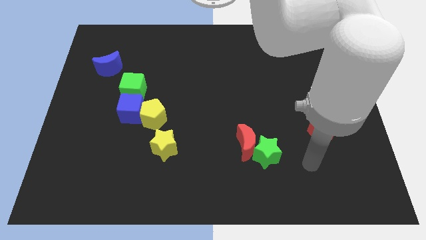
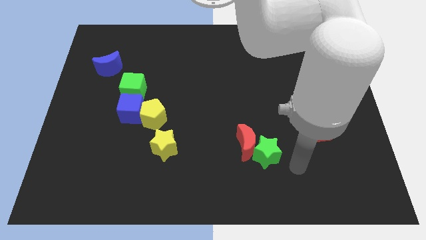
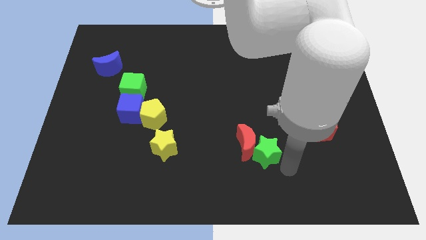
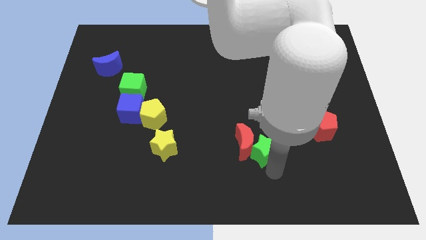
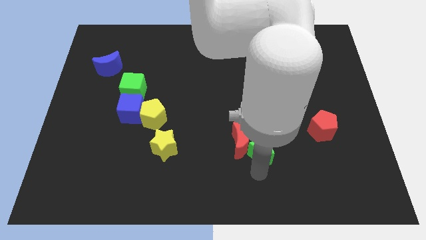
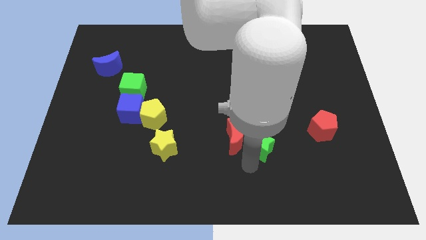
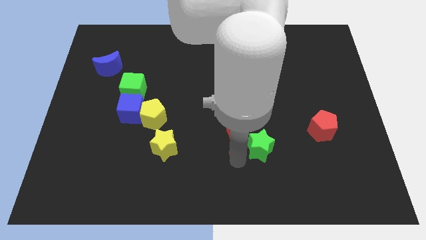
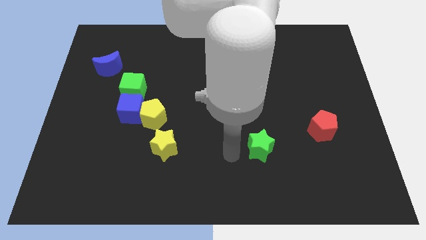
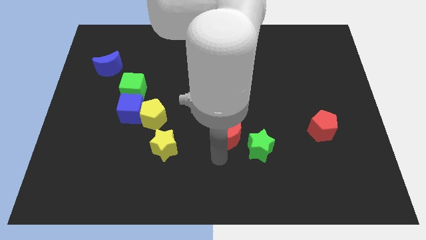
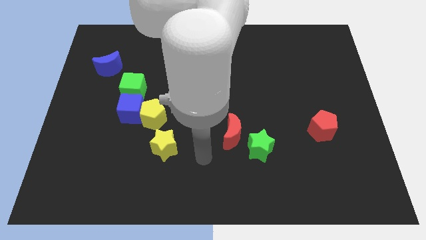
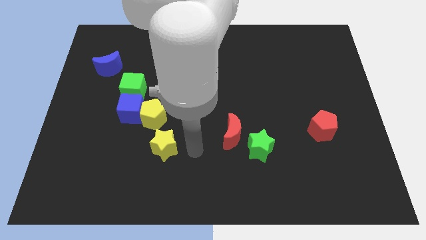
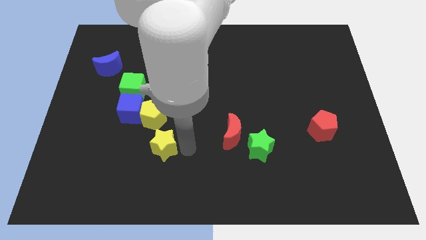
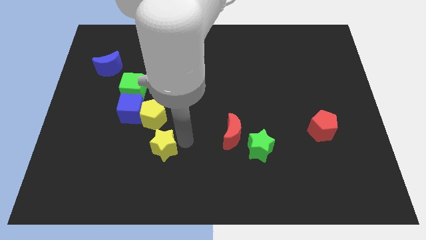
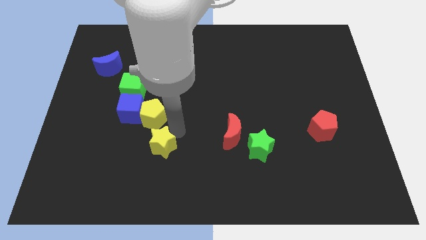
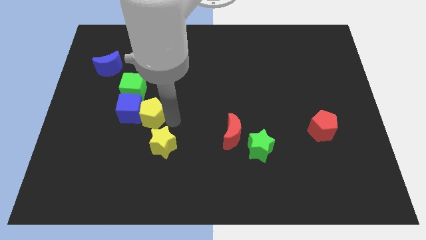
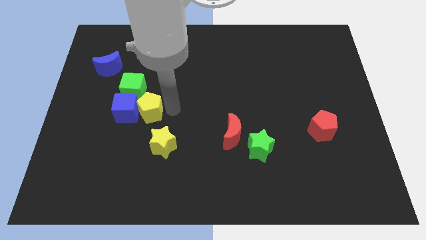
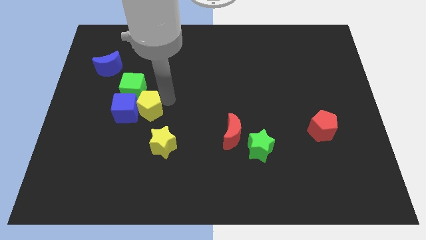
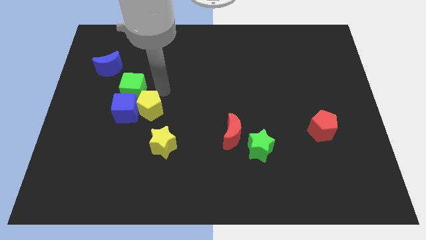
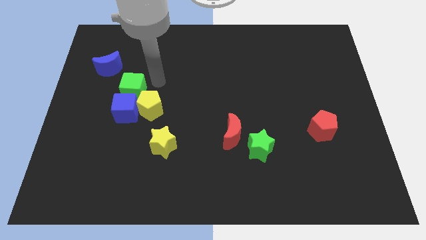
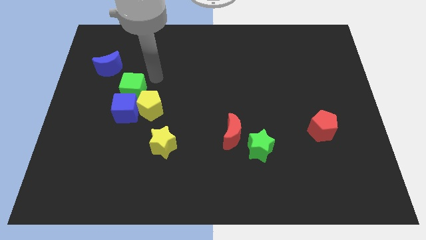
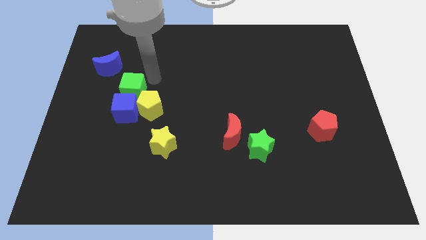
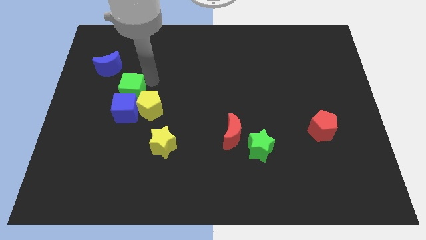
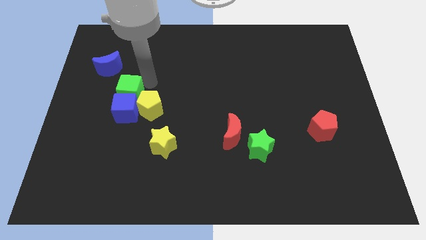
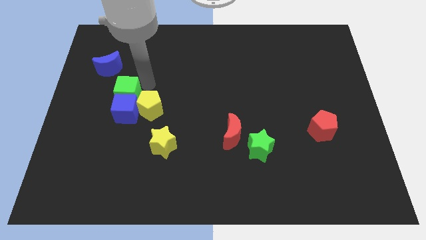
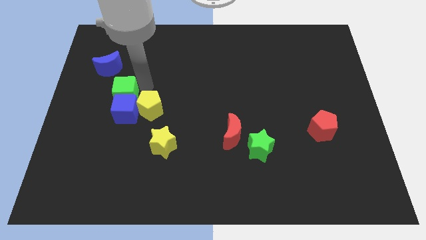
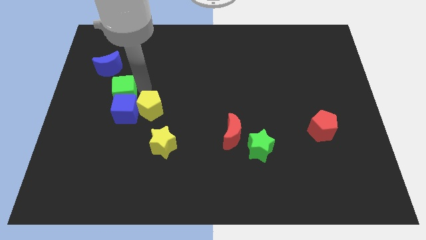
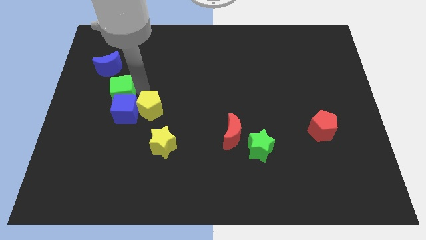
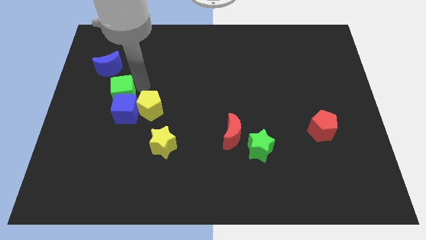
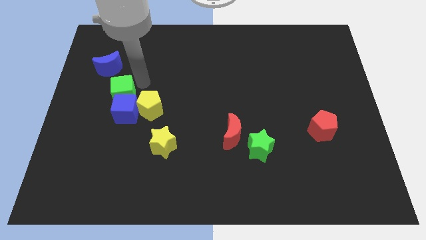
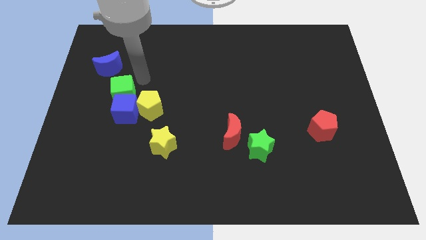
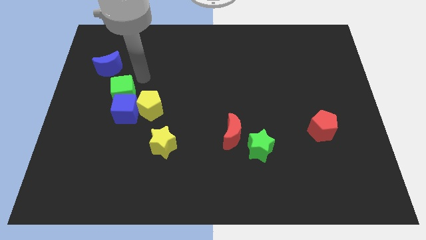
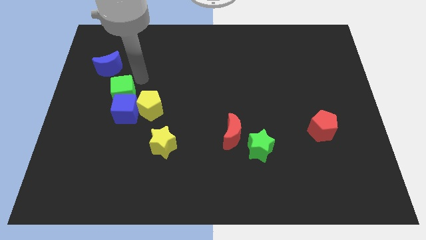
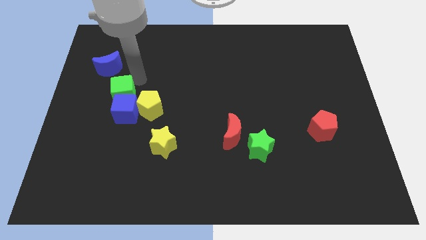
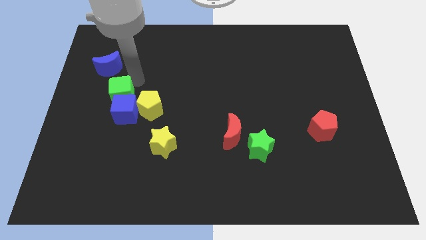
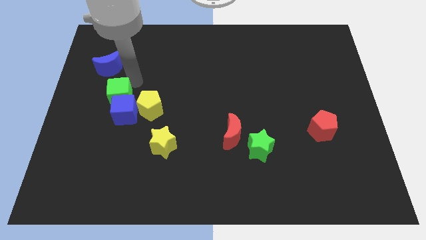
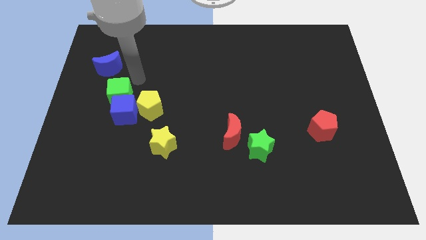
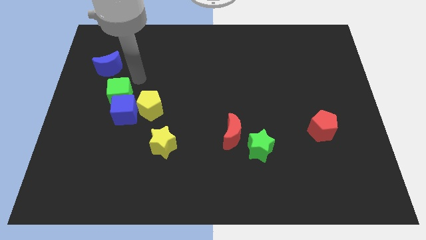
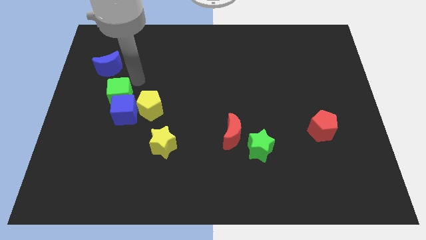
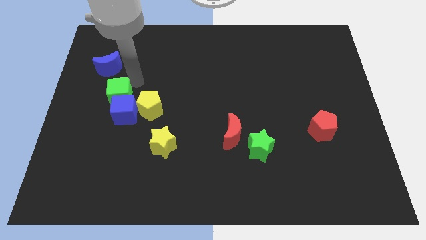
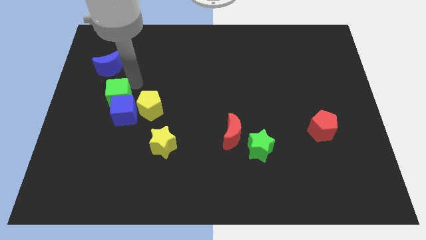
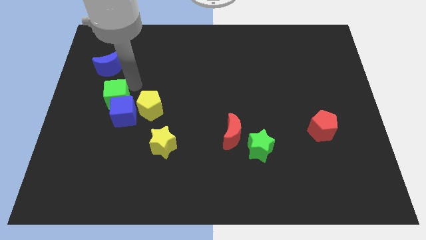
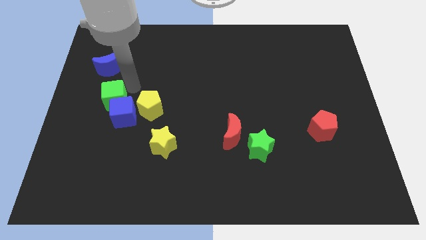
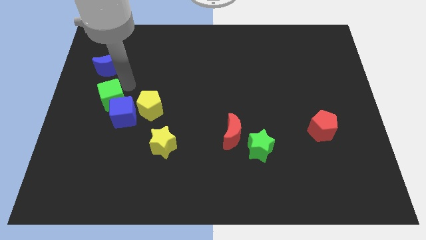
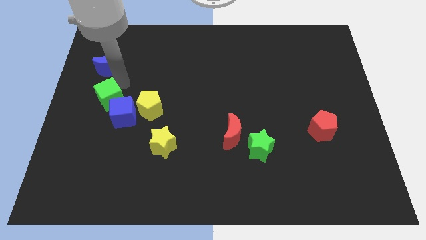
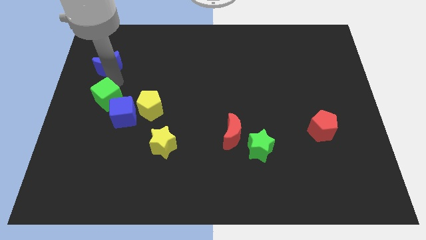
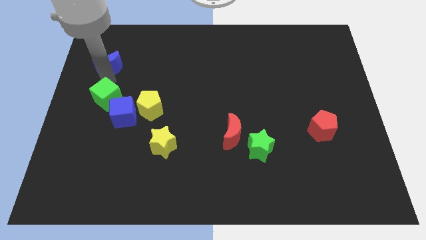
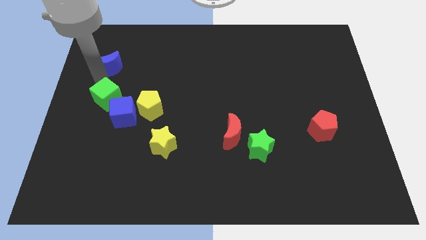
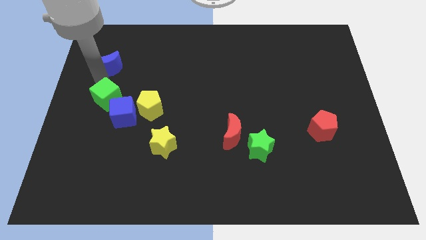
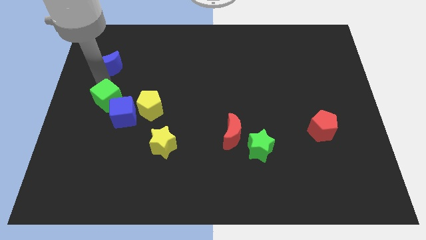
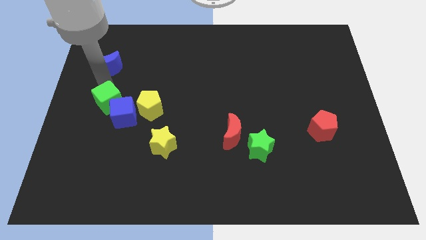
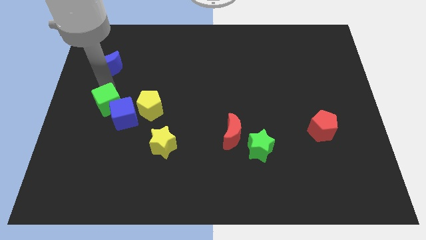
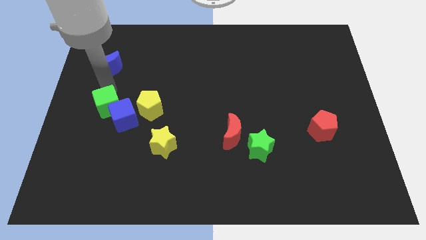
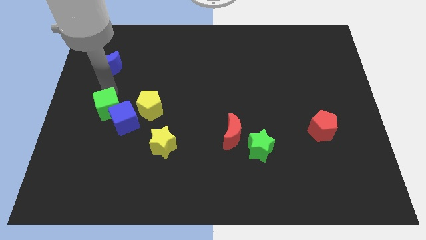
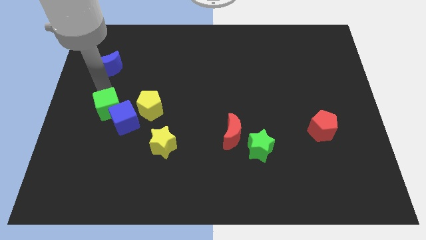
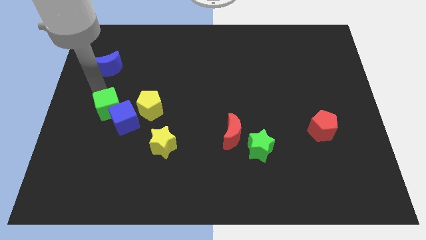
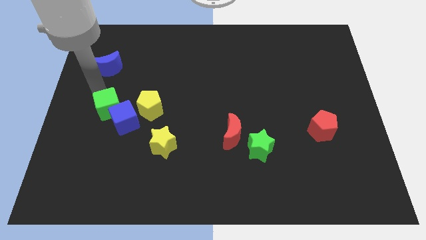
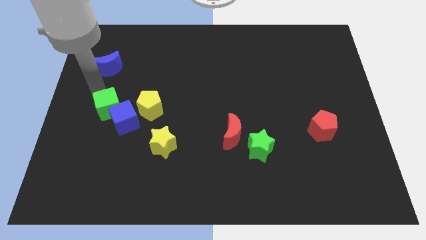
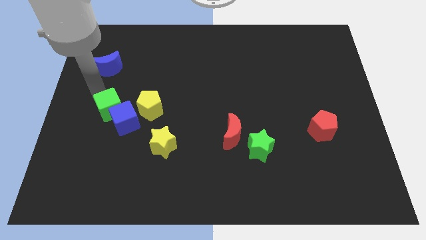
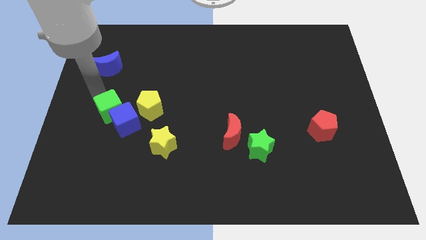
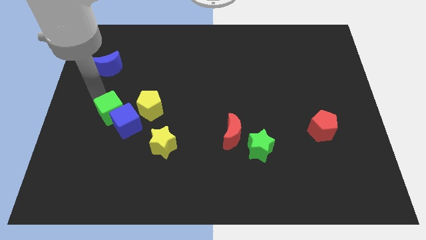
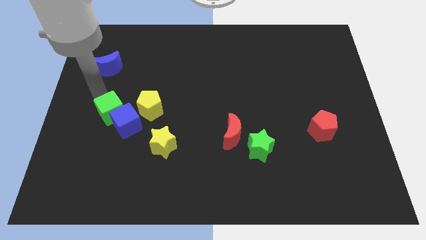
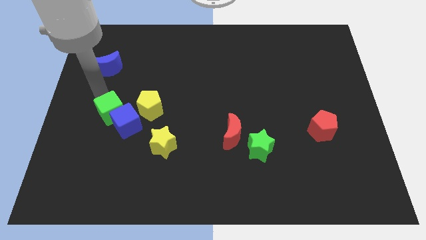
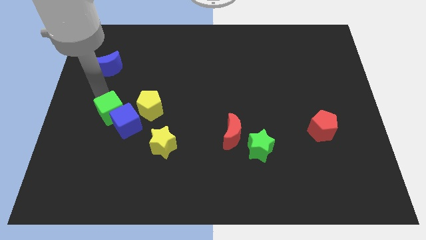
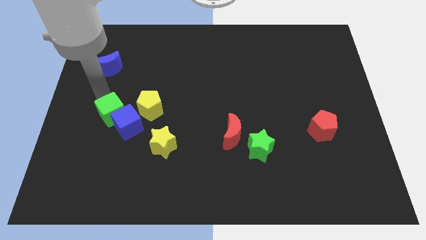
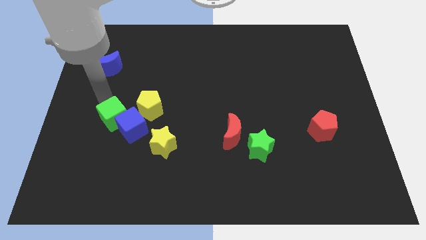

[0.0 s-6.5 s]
push the green cube somewhat down

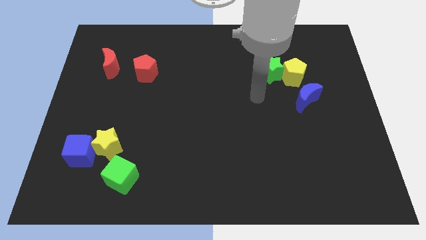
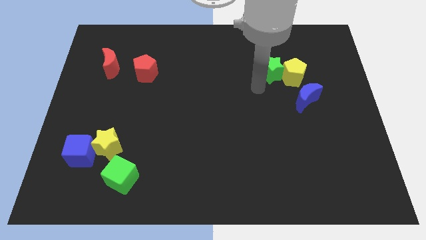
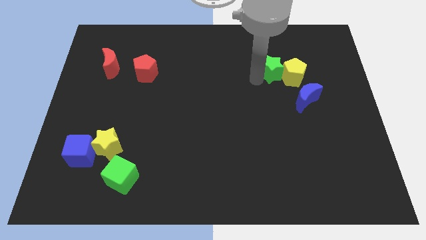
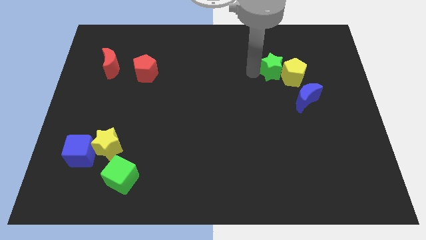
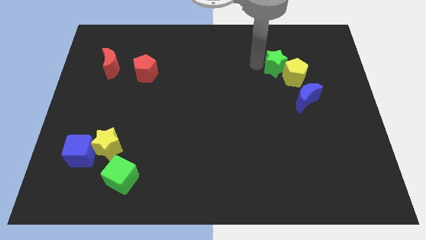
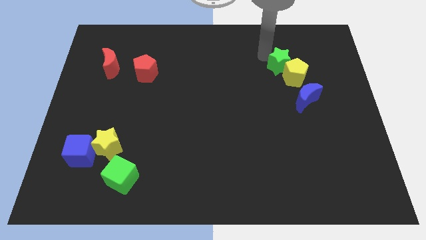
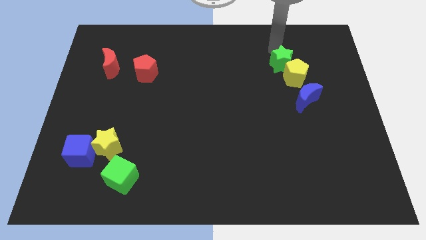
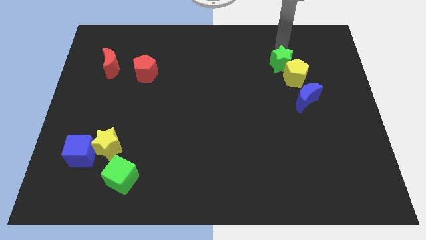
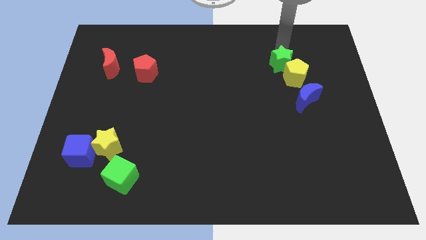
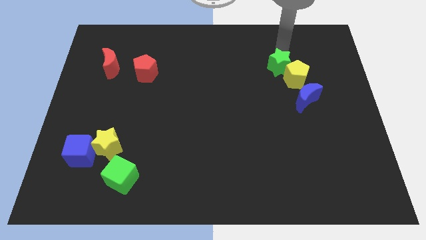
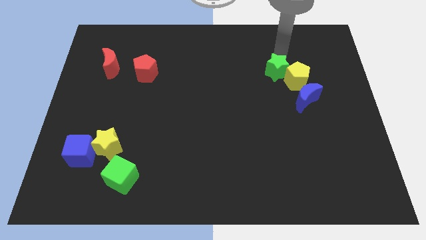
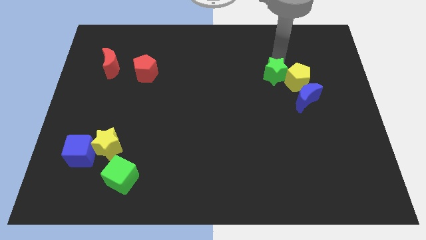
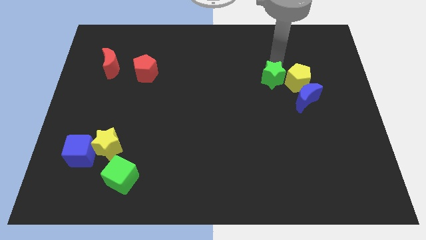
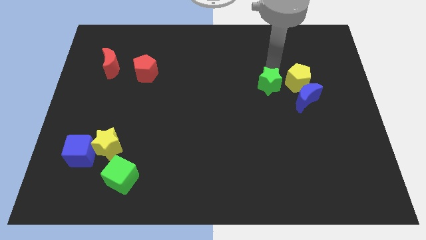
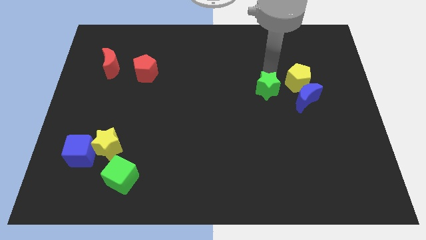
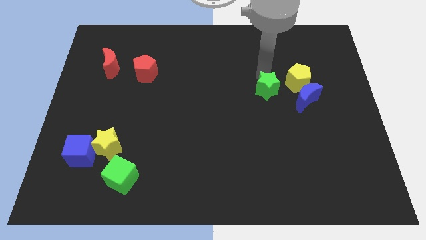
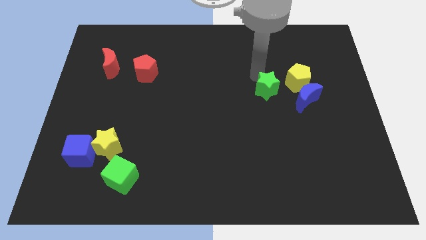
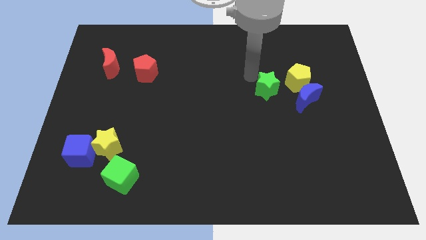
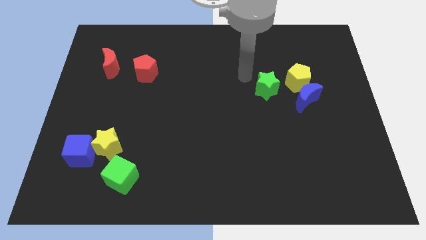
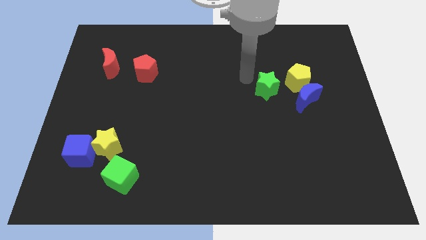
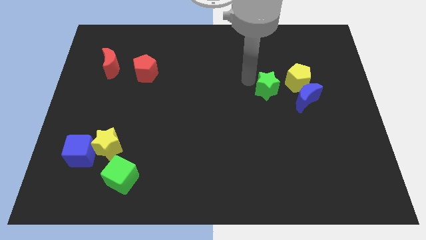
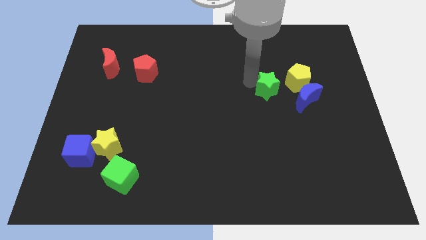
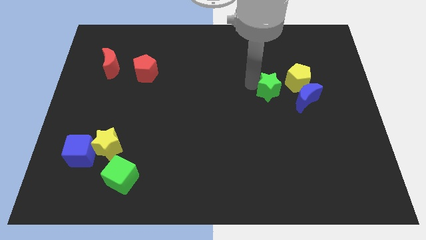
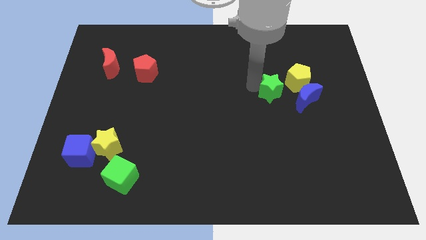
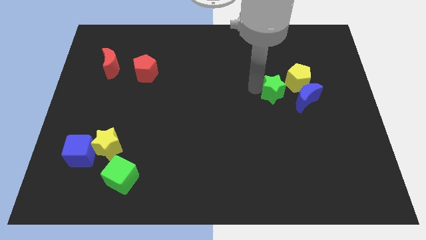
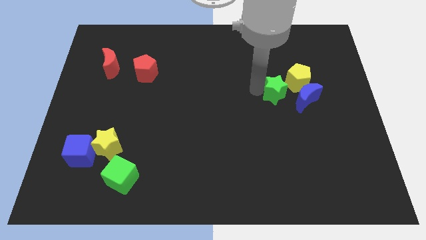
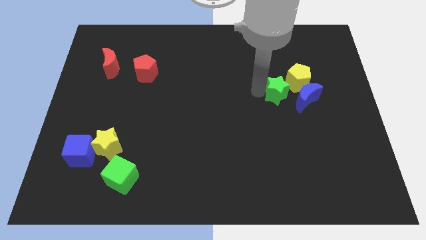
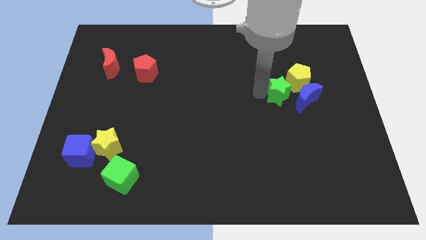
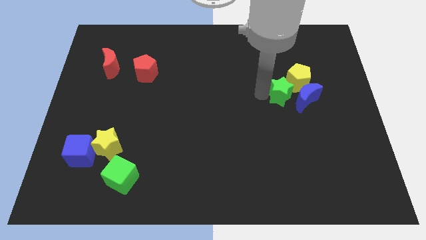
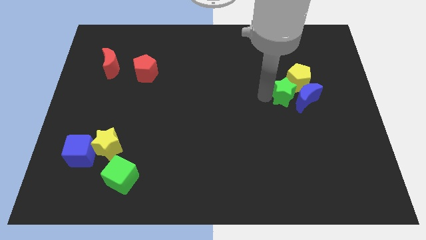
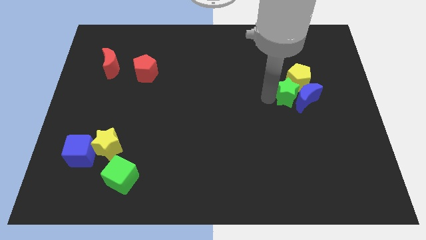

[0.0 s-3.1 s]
push the green star downwards and to the right diagonally slightly
